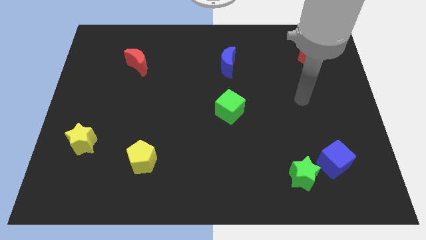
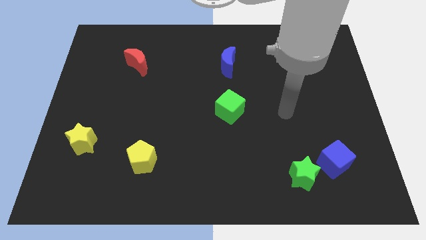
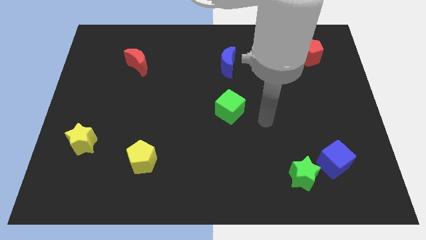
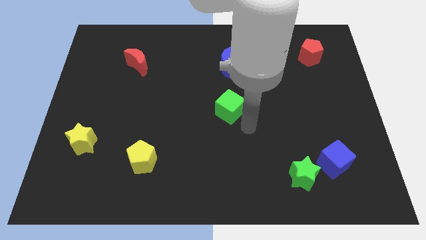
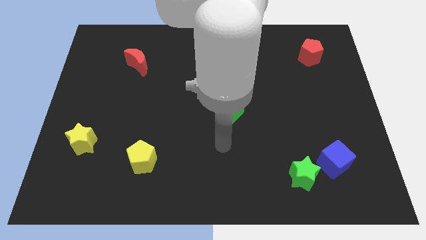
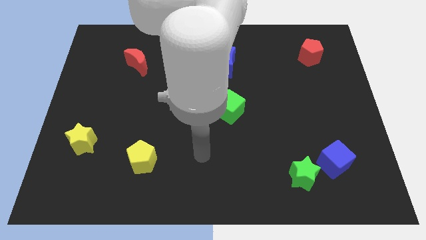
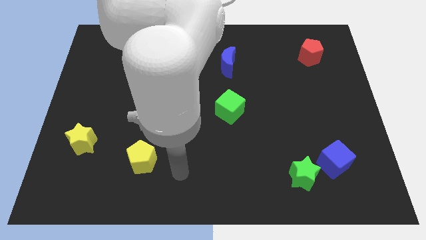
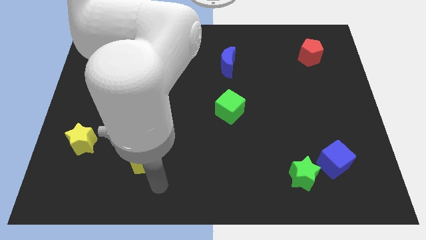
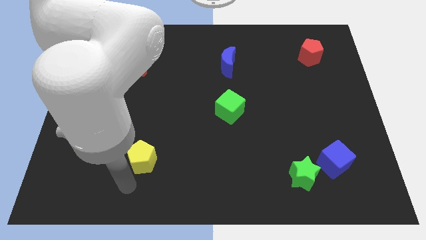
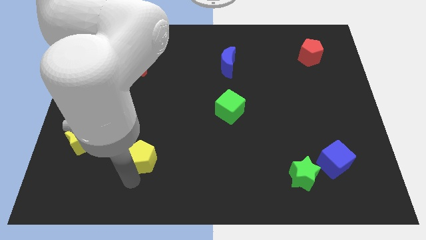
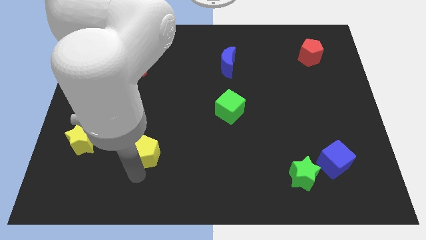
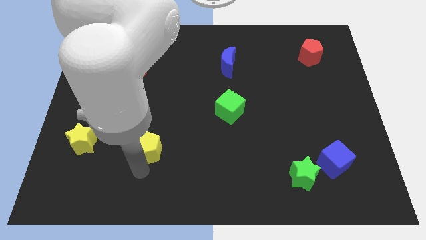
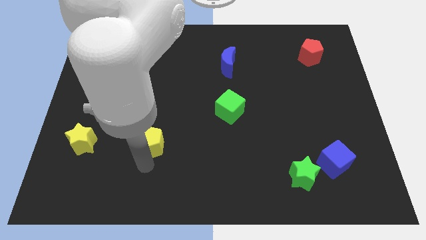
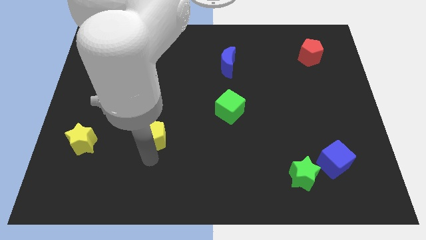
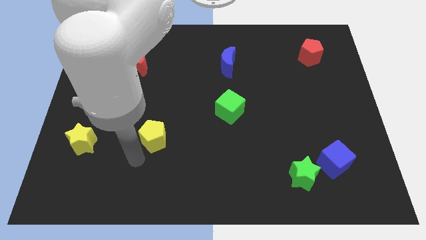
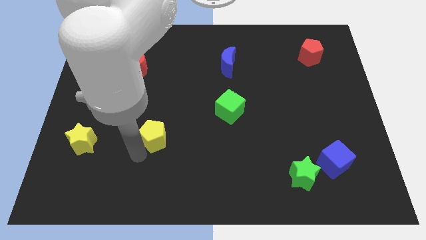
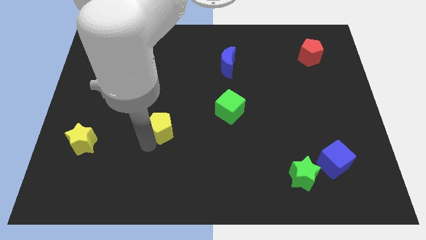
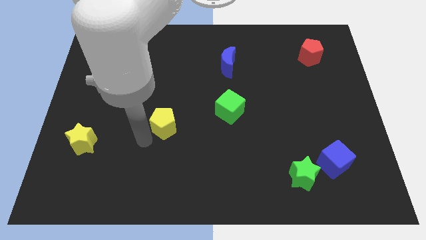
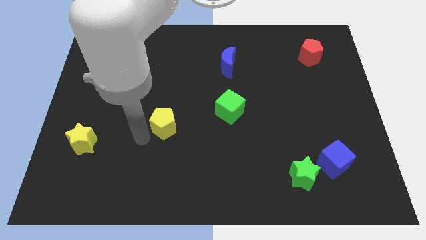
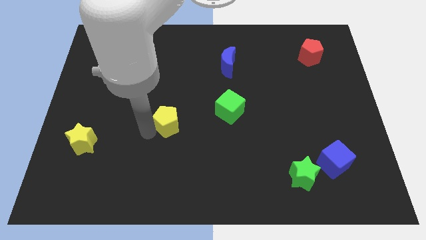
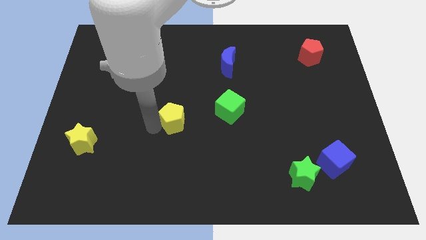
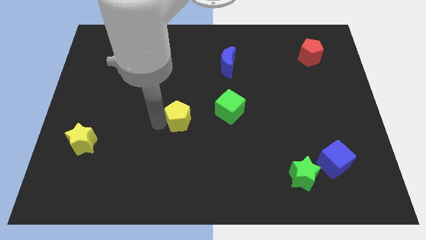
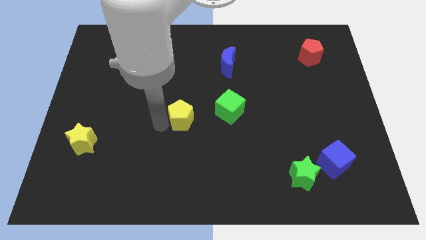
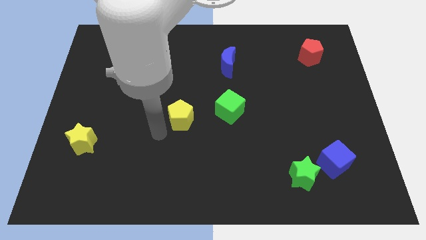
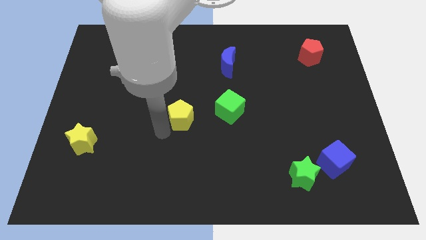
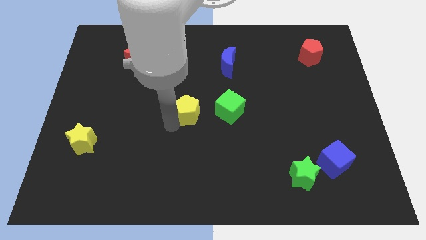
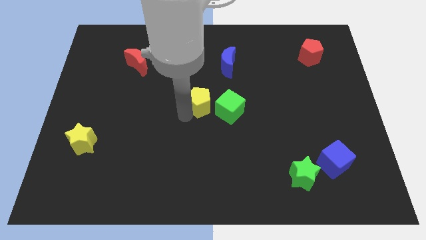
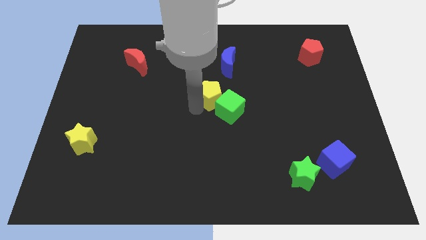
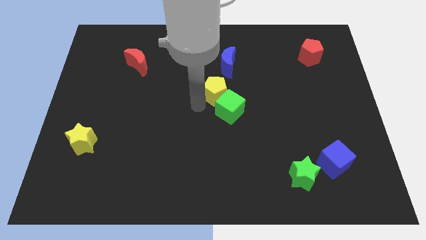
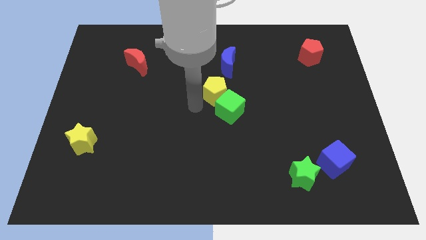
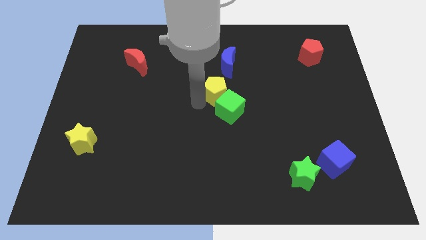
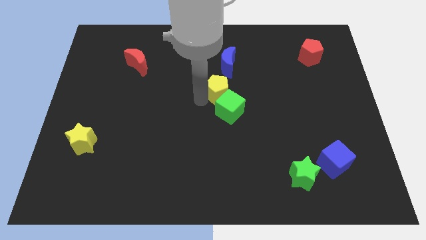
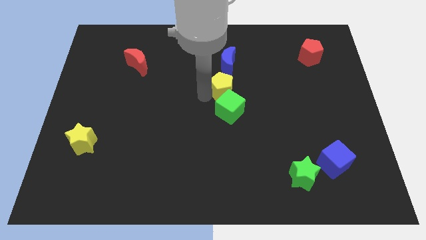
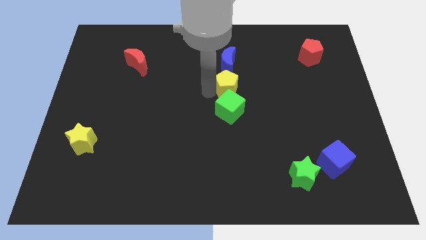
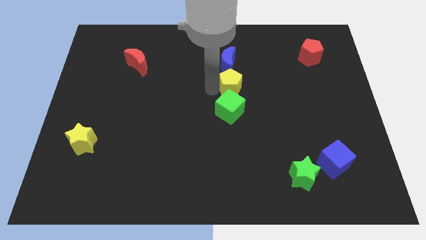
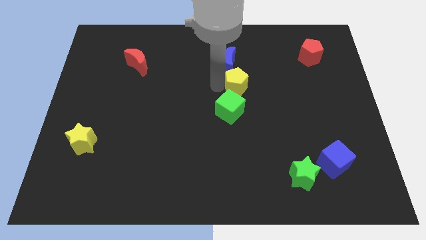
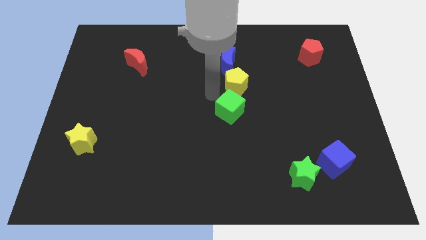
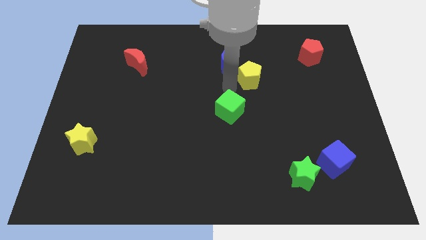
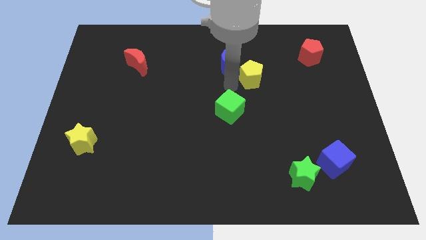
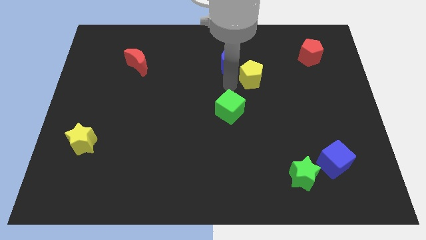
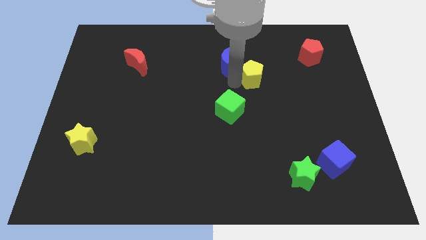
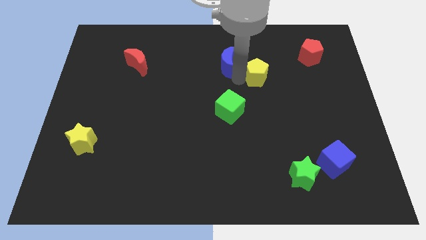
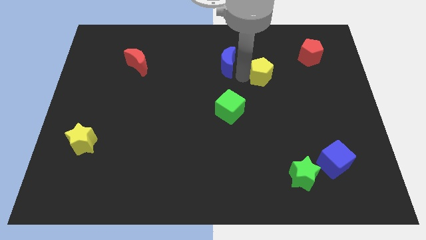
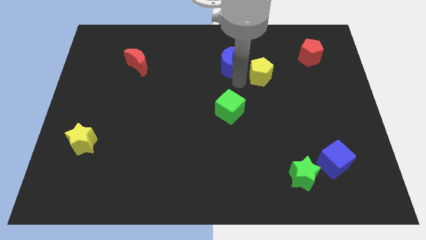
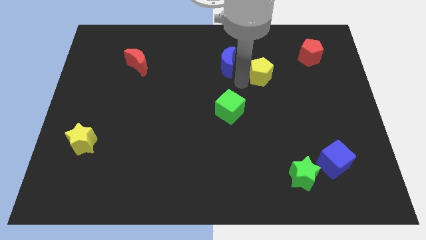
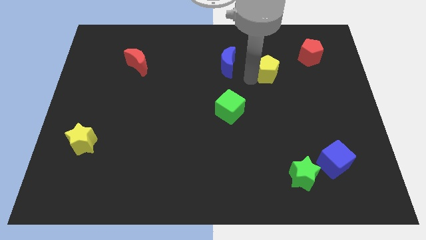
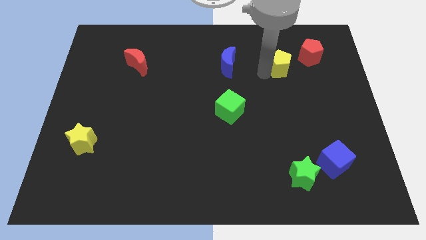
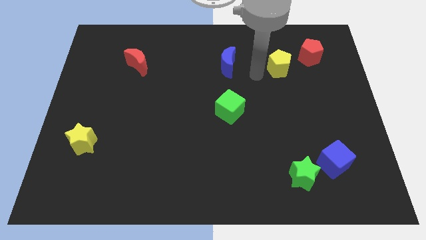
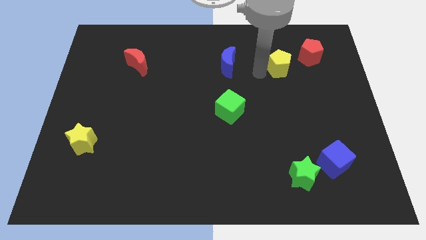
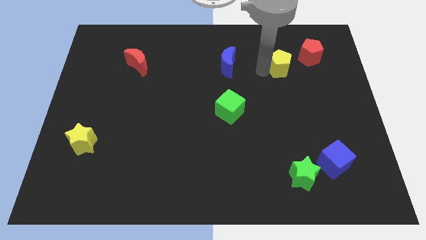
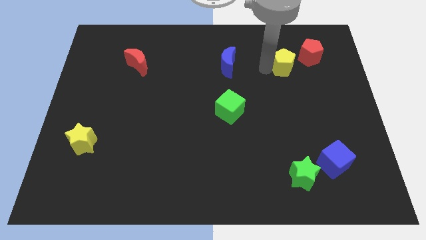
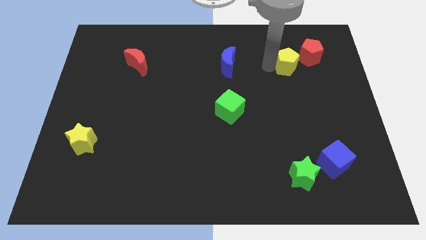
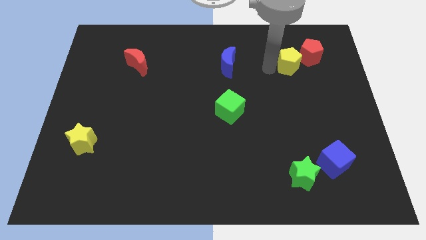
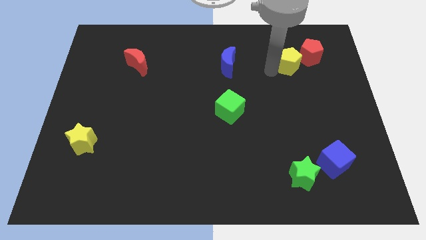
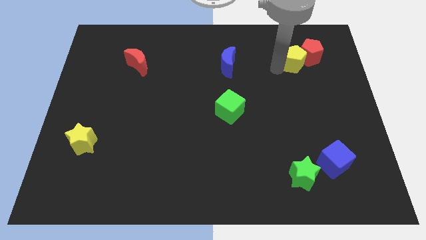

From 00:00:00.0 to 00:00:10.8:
put the yellow pentagon towards the red pentagon

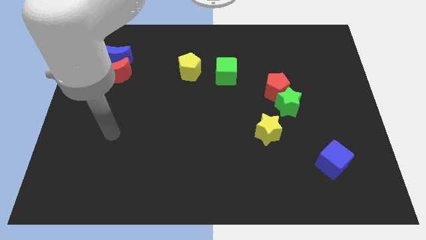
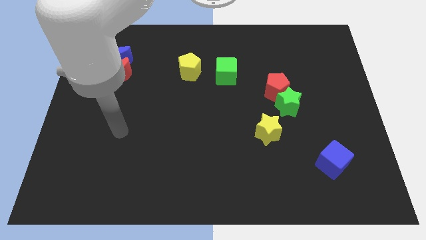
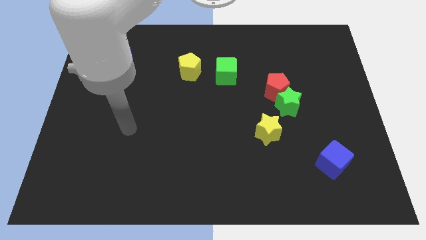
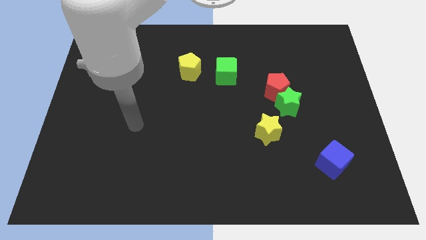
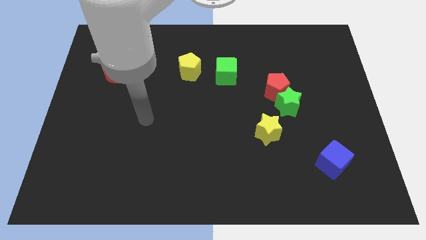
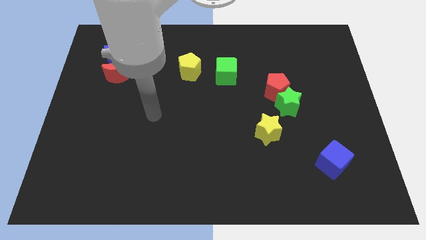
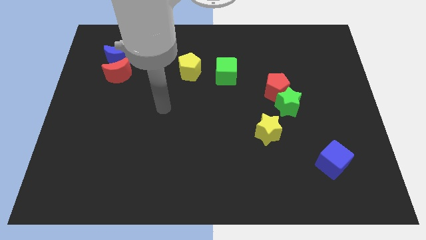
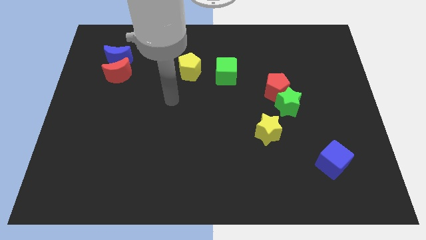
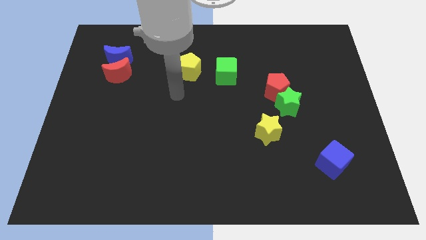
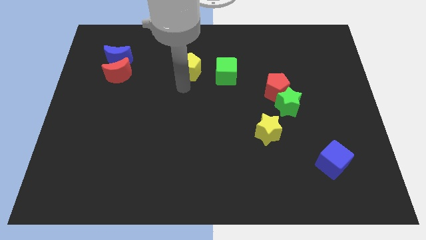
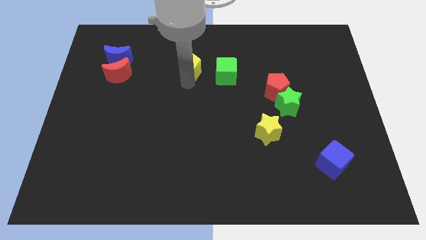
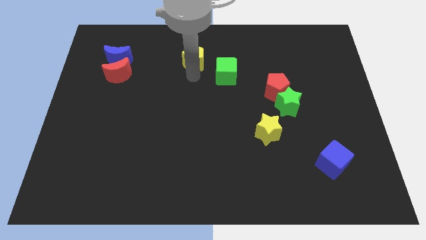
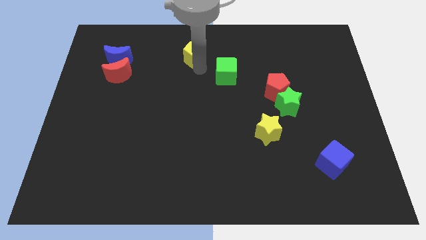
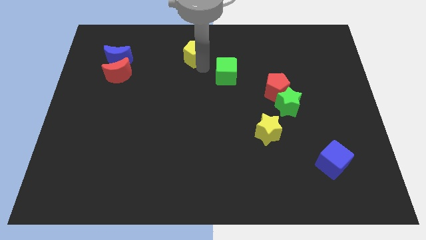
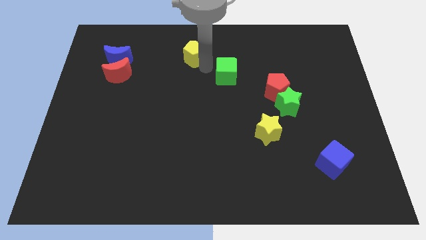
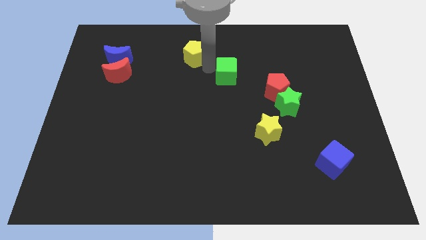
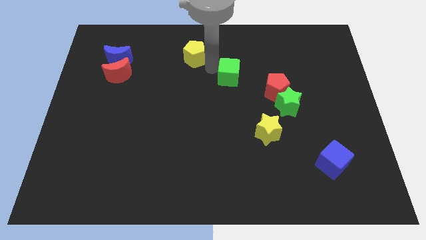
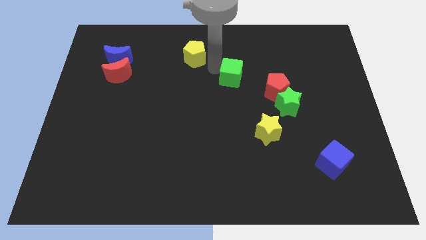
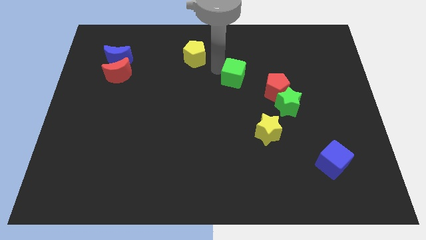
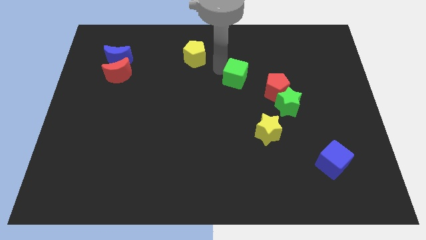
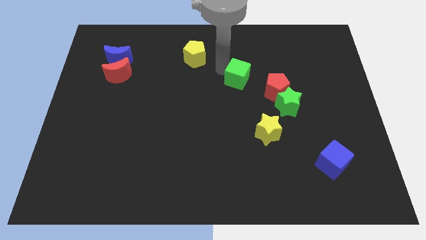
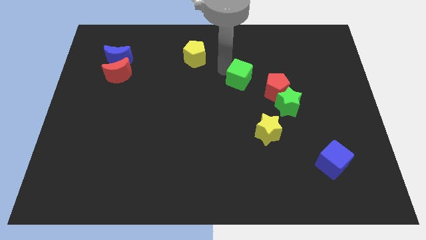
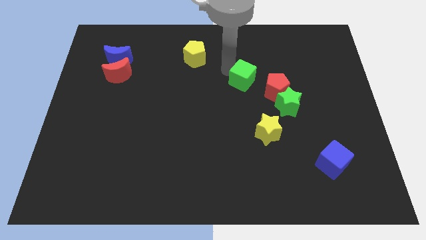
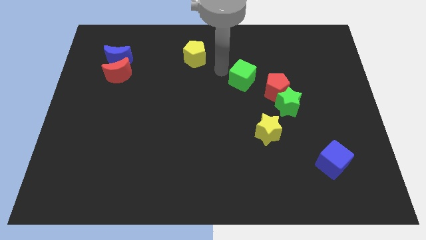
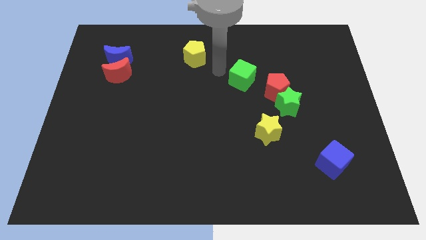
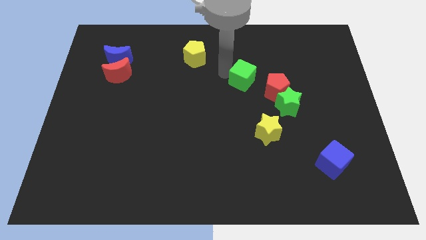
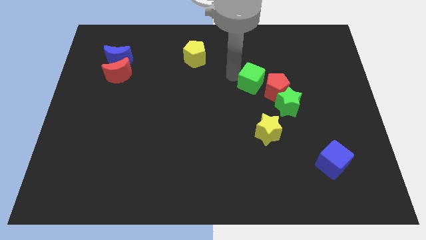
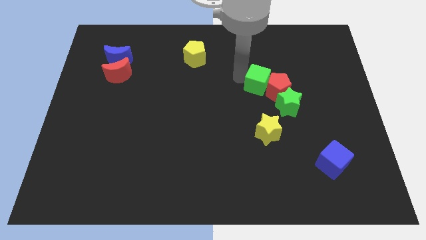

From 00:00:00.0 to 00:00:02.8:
put the green cube to the red pentagon
